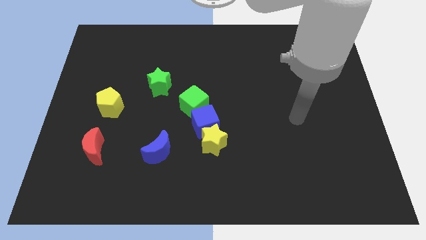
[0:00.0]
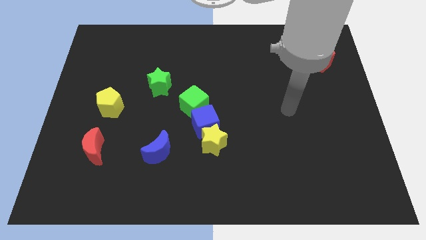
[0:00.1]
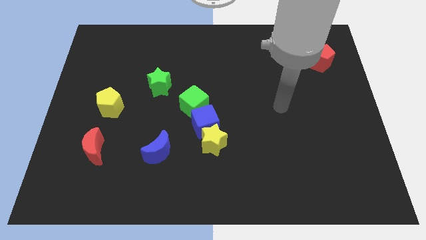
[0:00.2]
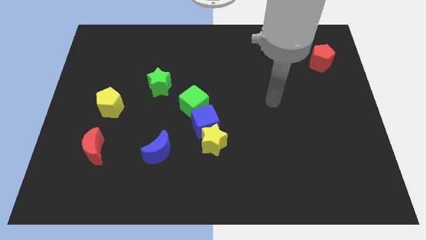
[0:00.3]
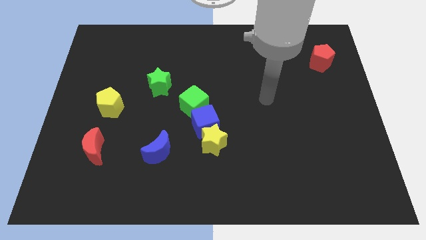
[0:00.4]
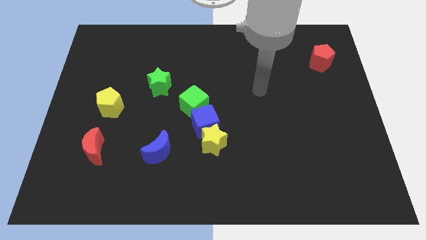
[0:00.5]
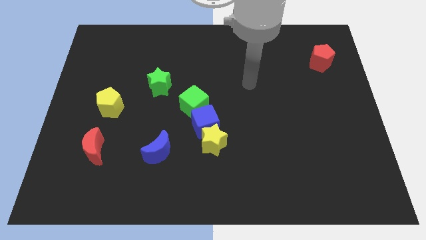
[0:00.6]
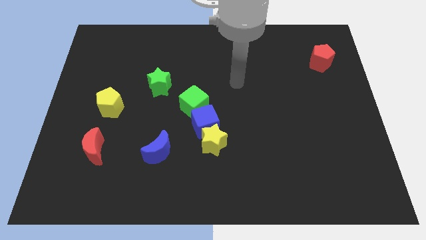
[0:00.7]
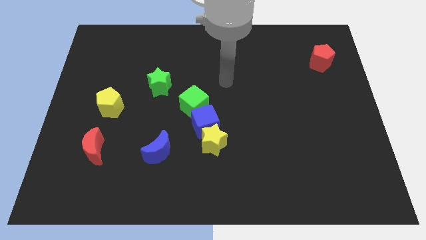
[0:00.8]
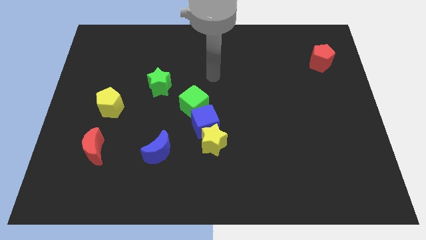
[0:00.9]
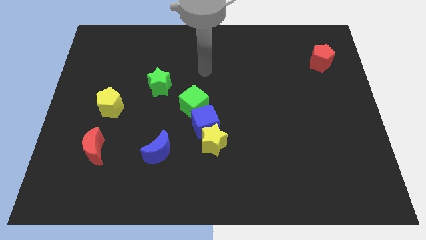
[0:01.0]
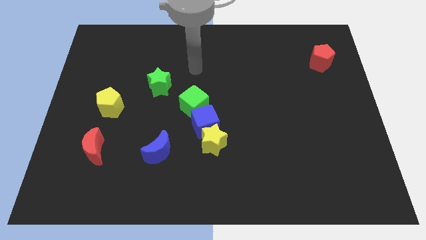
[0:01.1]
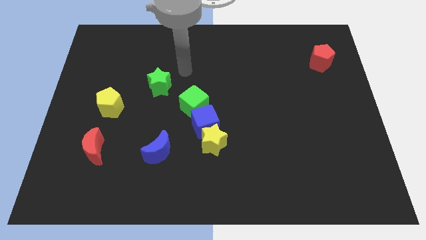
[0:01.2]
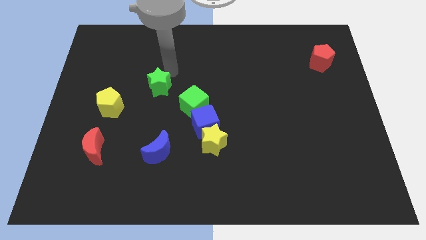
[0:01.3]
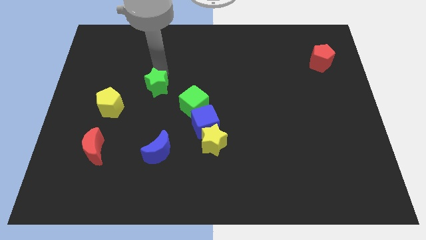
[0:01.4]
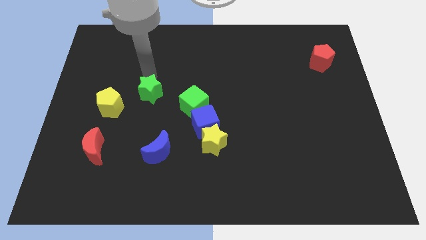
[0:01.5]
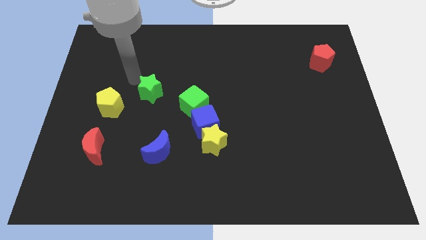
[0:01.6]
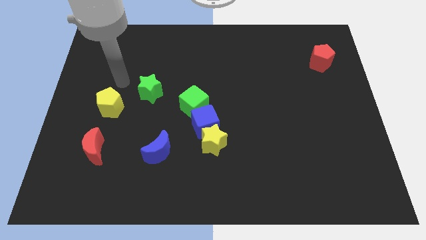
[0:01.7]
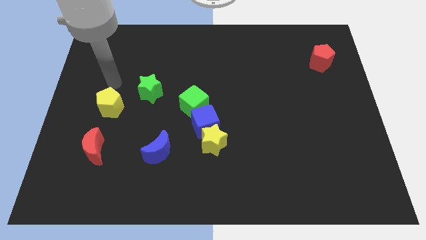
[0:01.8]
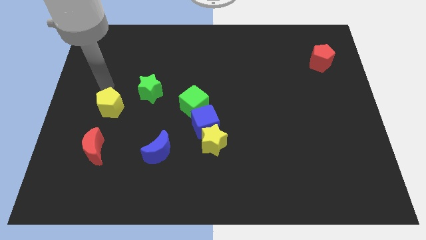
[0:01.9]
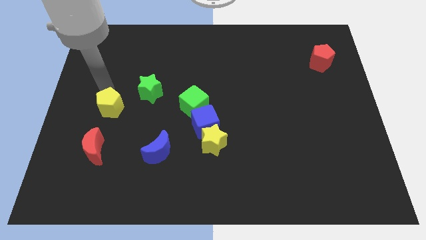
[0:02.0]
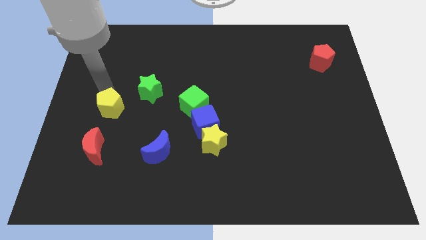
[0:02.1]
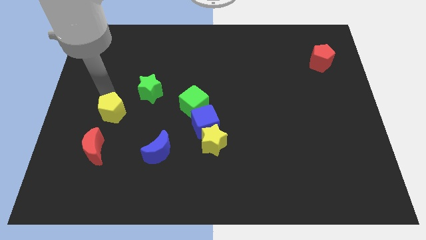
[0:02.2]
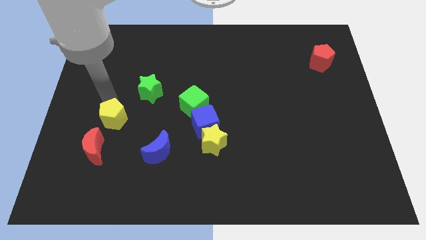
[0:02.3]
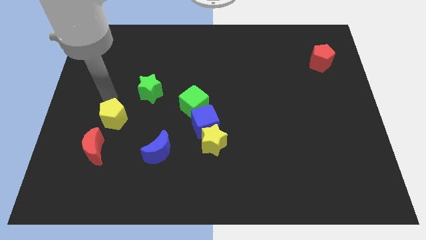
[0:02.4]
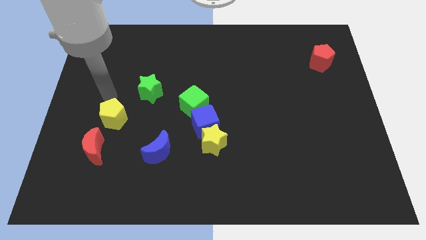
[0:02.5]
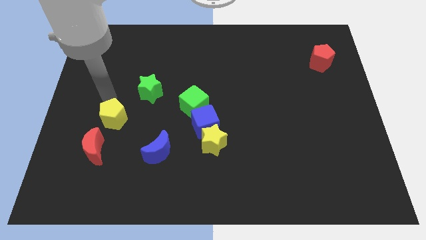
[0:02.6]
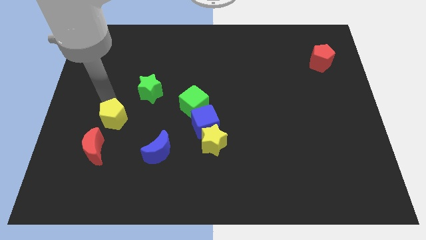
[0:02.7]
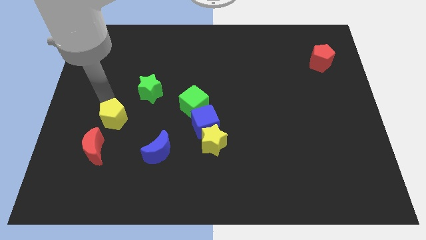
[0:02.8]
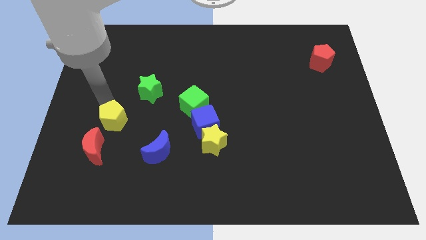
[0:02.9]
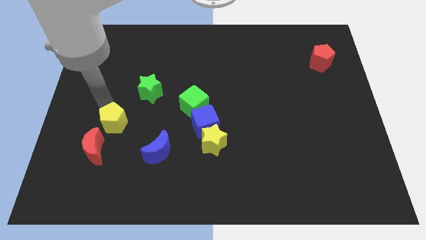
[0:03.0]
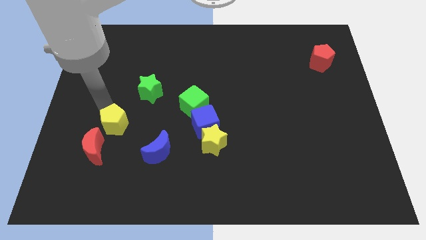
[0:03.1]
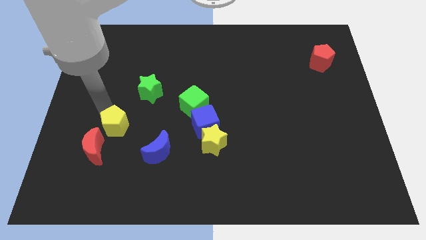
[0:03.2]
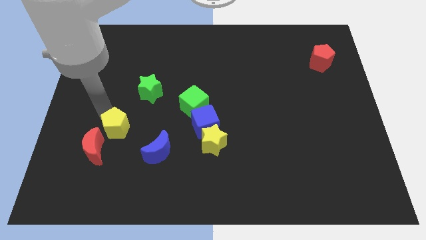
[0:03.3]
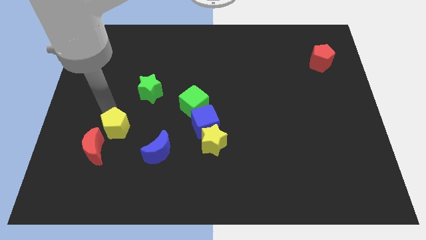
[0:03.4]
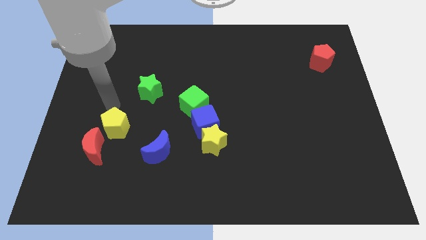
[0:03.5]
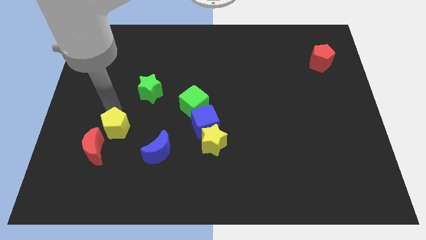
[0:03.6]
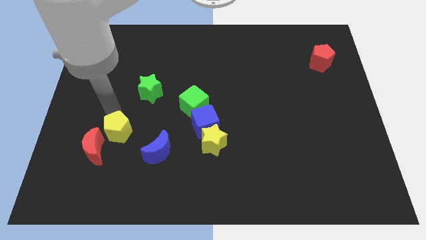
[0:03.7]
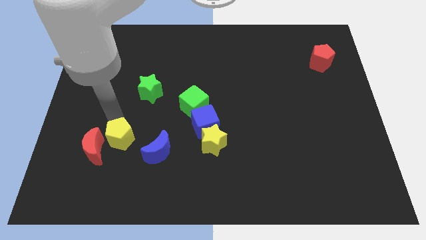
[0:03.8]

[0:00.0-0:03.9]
slightly push the yellow pentagon down

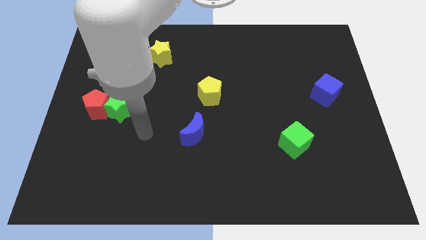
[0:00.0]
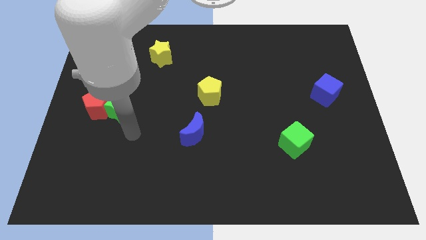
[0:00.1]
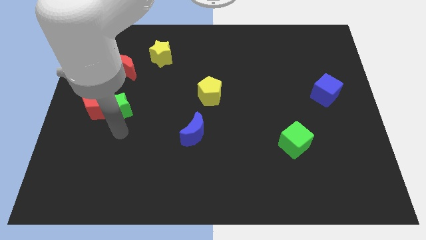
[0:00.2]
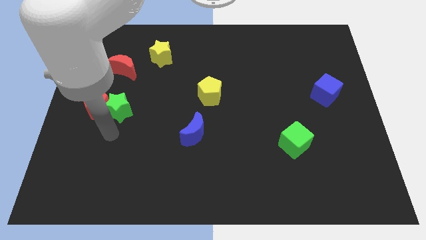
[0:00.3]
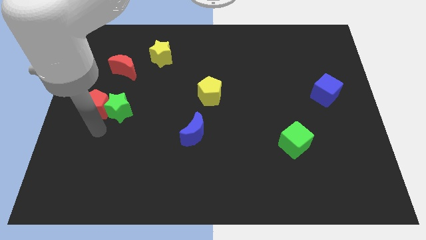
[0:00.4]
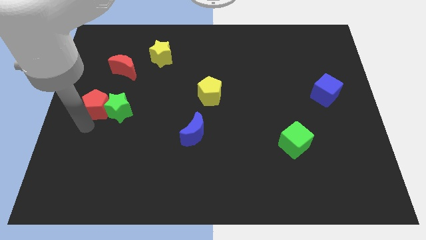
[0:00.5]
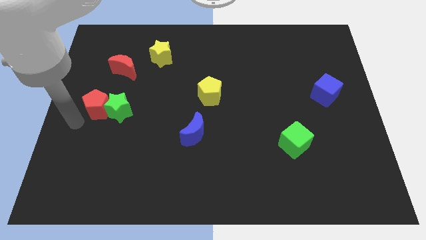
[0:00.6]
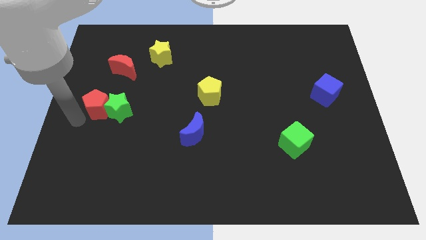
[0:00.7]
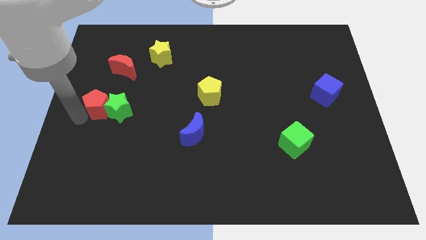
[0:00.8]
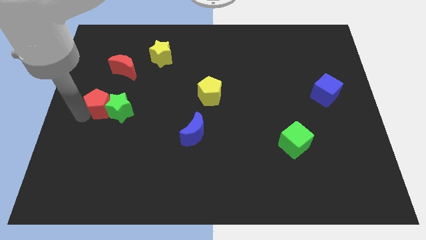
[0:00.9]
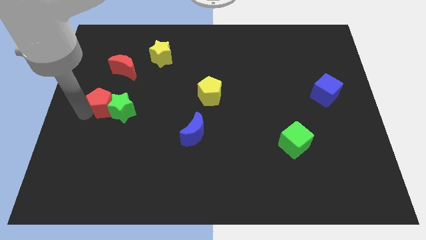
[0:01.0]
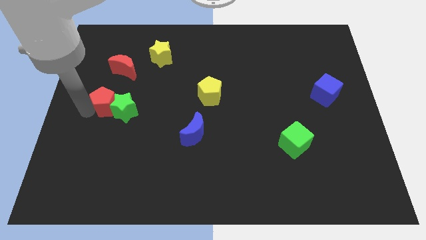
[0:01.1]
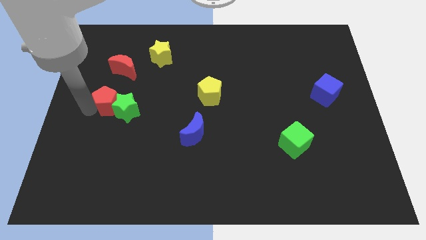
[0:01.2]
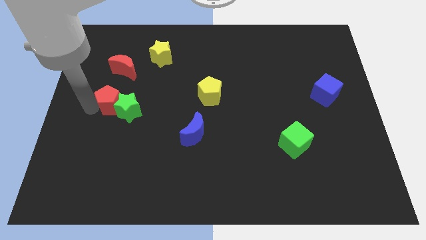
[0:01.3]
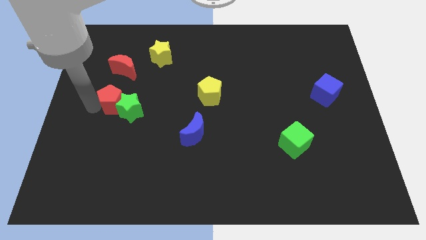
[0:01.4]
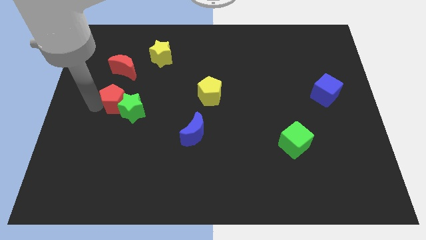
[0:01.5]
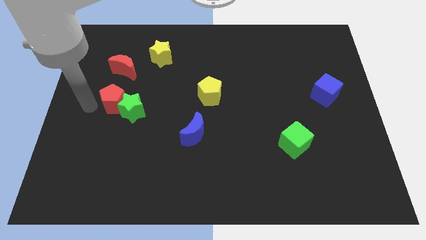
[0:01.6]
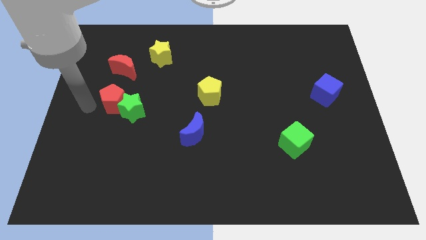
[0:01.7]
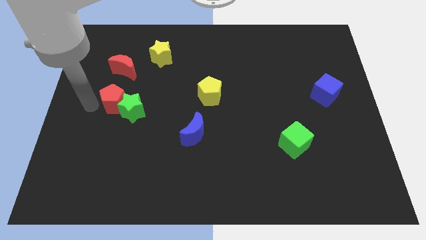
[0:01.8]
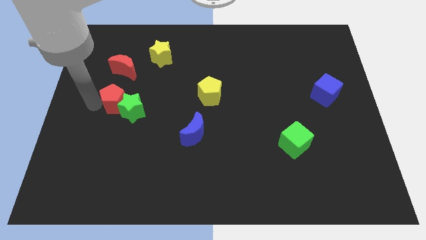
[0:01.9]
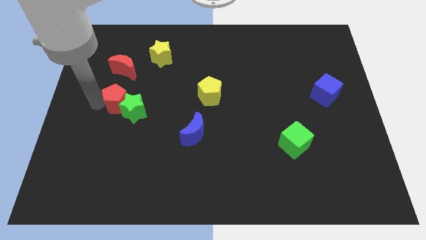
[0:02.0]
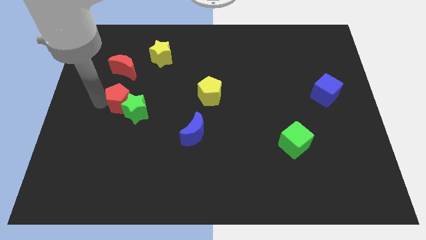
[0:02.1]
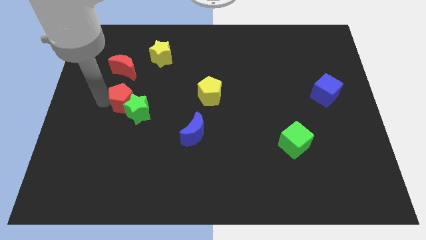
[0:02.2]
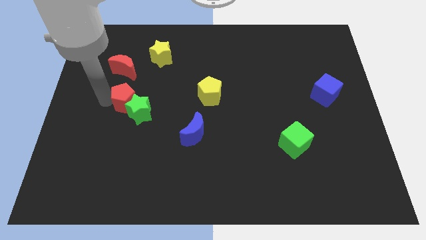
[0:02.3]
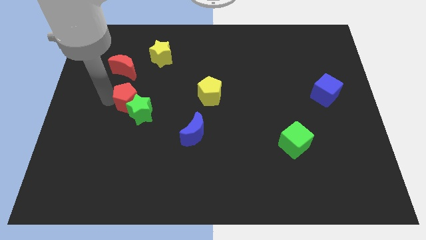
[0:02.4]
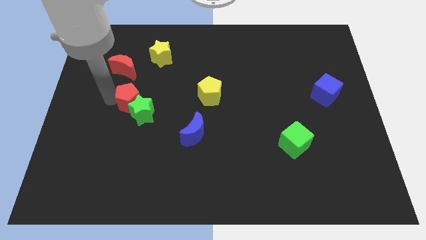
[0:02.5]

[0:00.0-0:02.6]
slightly push the red pentagon to the right

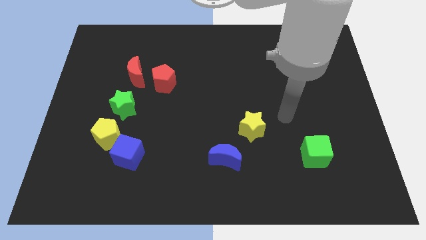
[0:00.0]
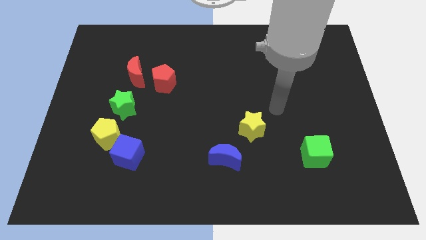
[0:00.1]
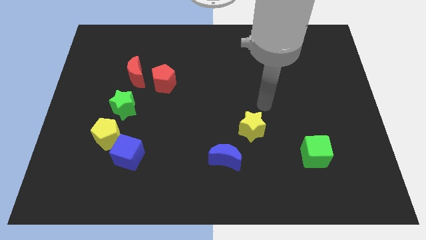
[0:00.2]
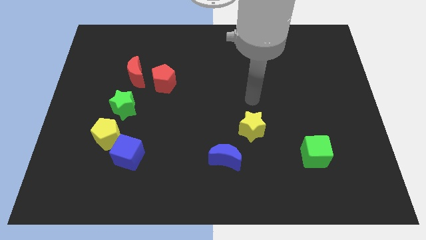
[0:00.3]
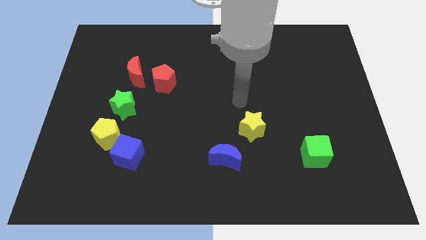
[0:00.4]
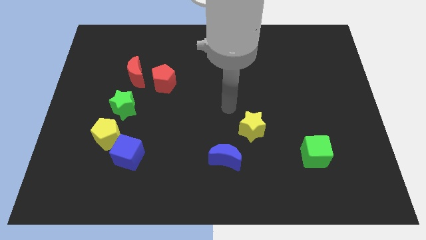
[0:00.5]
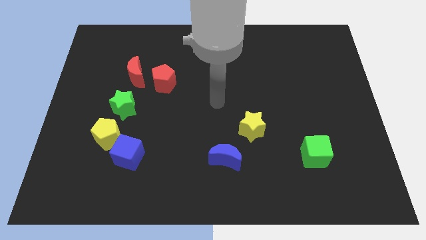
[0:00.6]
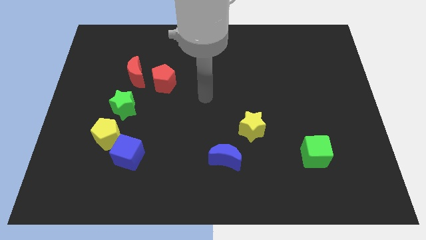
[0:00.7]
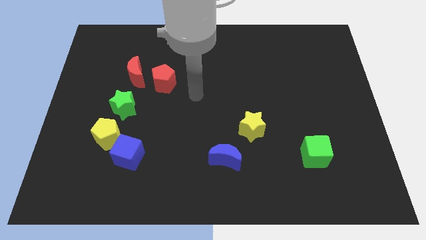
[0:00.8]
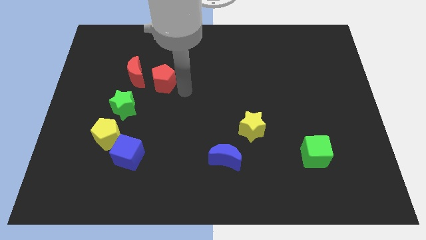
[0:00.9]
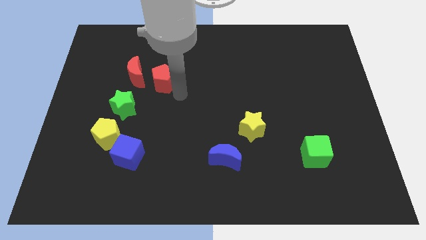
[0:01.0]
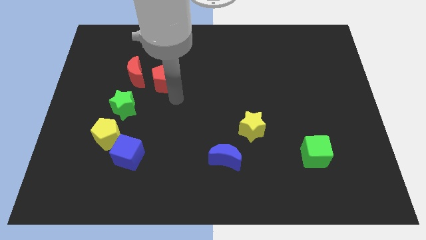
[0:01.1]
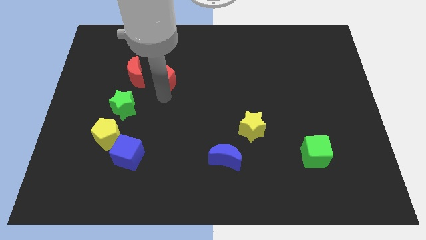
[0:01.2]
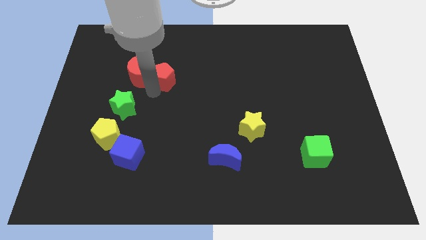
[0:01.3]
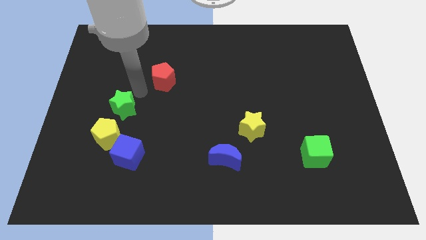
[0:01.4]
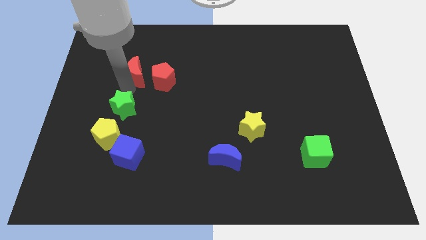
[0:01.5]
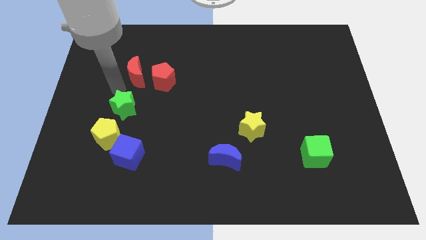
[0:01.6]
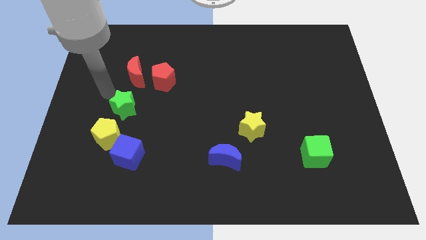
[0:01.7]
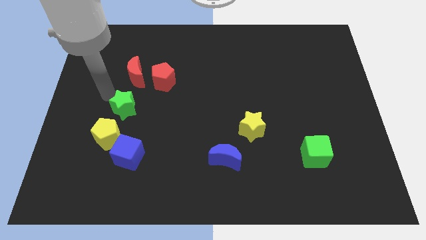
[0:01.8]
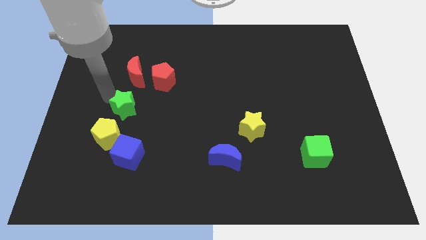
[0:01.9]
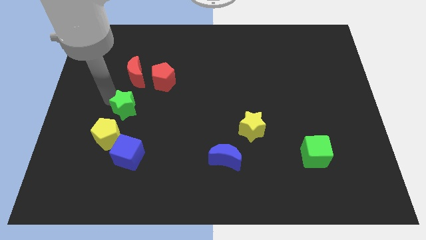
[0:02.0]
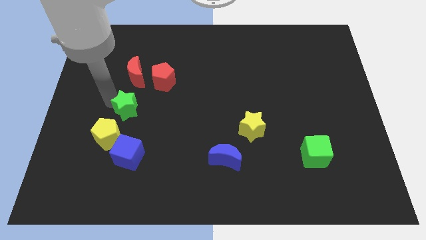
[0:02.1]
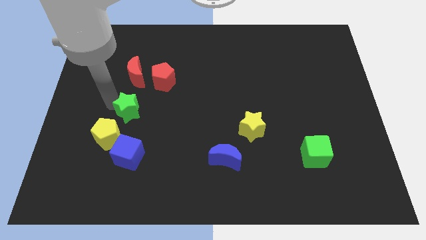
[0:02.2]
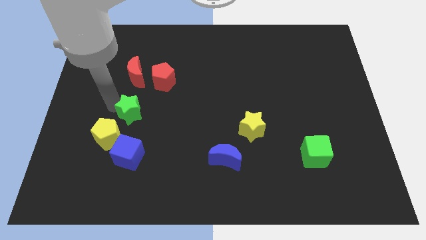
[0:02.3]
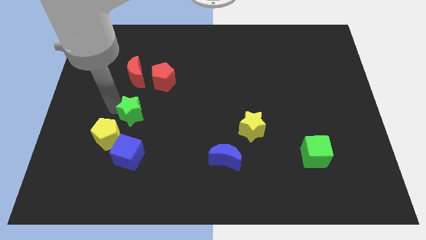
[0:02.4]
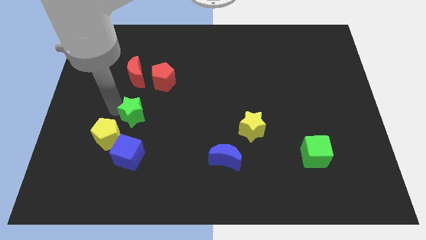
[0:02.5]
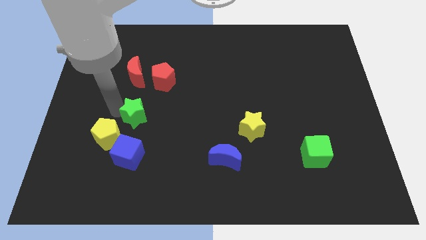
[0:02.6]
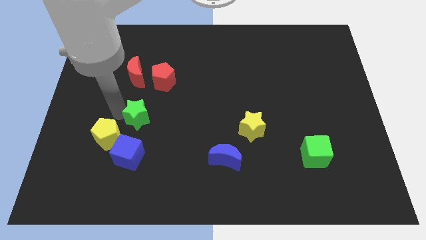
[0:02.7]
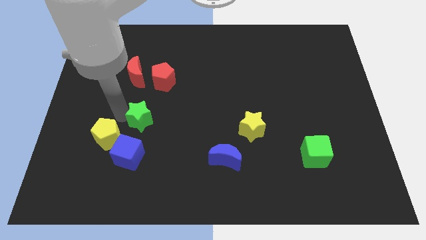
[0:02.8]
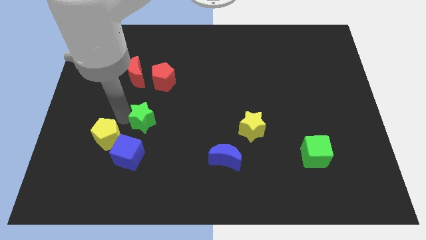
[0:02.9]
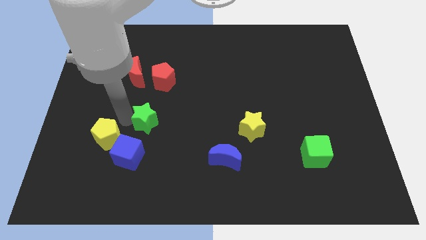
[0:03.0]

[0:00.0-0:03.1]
push the green star down and then right a bit
